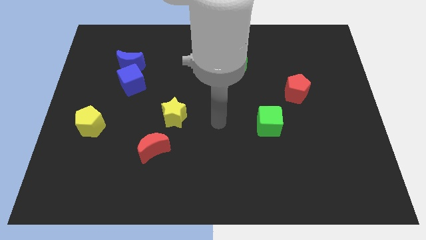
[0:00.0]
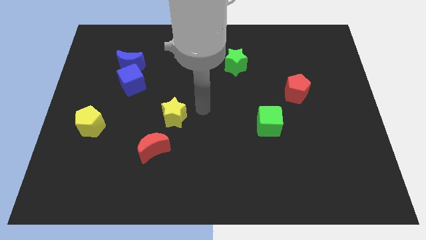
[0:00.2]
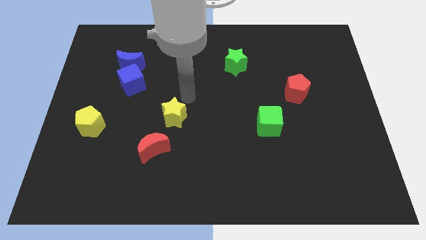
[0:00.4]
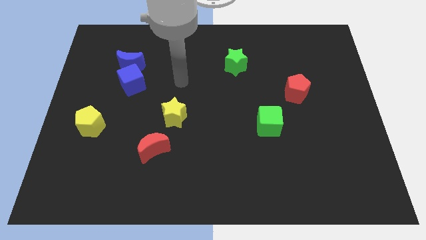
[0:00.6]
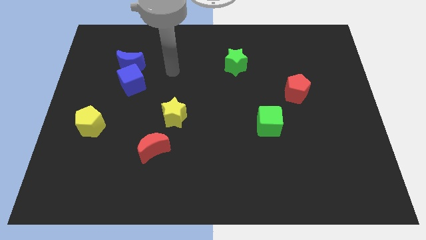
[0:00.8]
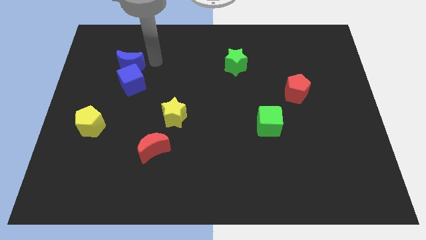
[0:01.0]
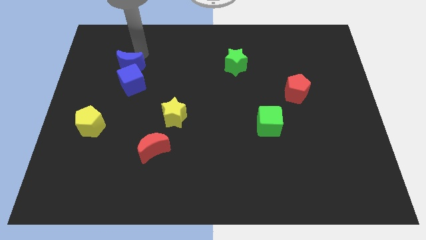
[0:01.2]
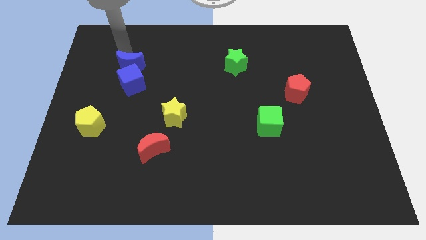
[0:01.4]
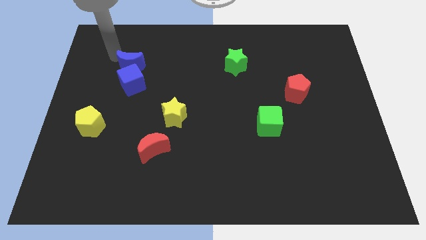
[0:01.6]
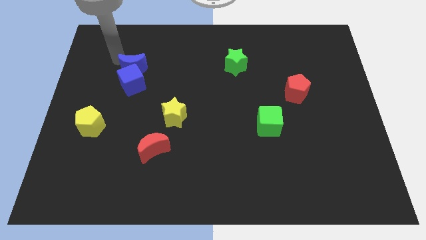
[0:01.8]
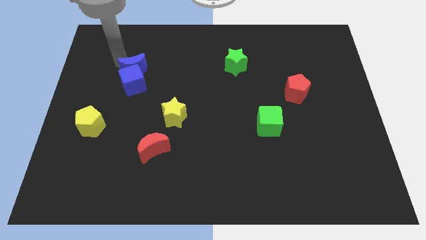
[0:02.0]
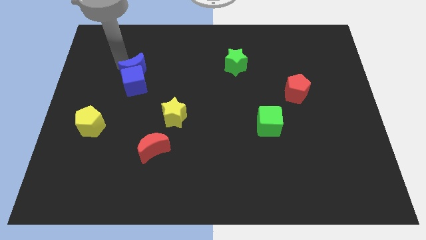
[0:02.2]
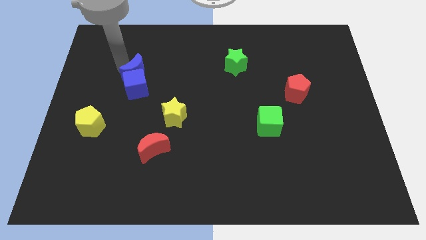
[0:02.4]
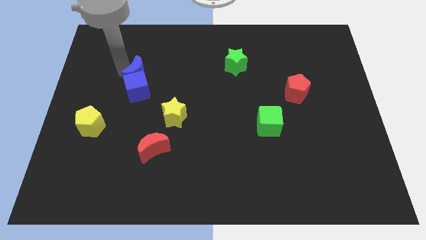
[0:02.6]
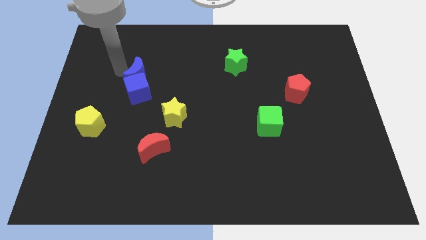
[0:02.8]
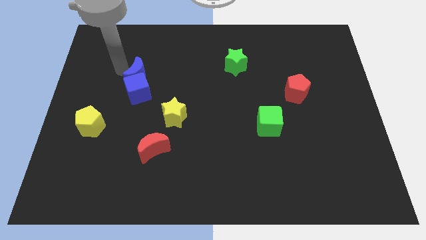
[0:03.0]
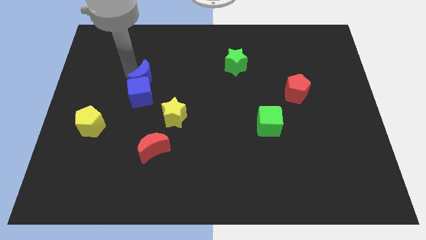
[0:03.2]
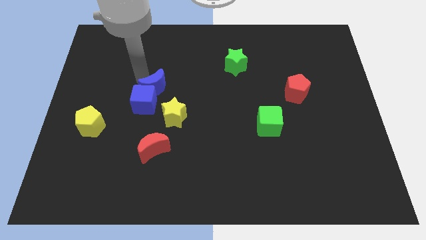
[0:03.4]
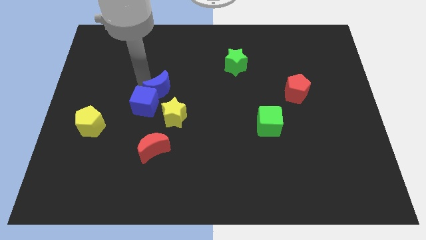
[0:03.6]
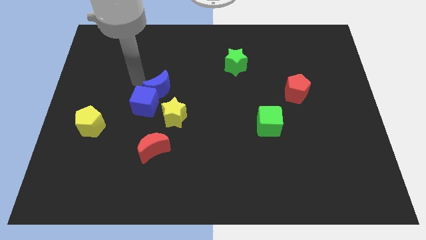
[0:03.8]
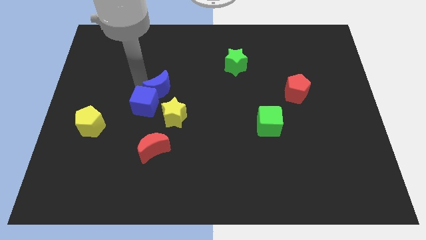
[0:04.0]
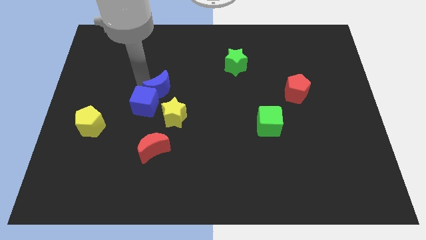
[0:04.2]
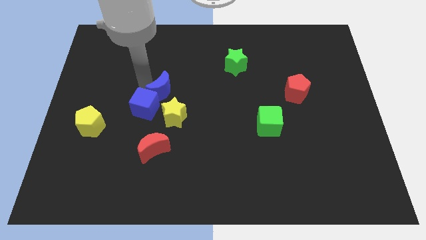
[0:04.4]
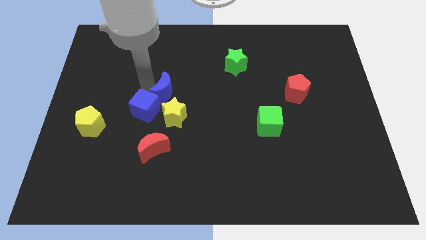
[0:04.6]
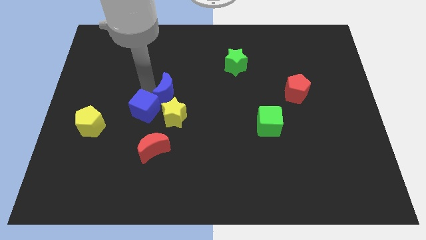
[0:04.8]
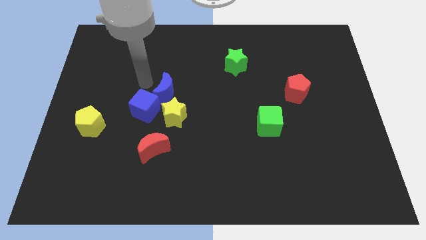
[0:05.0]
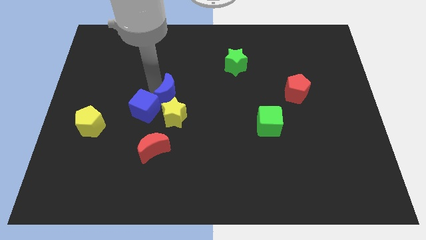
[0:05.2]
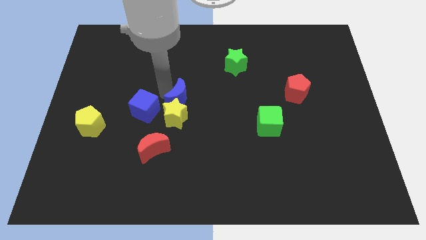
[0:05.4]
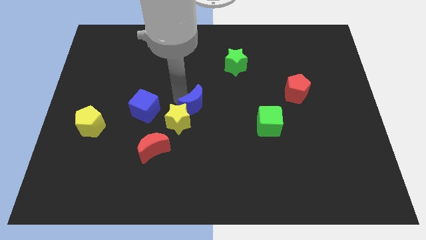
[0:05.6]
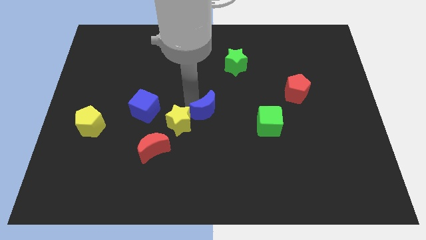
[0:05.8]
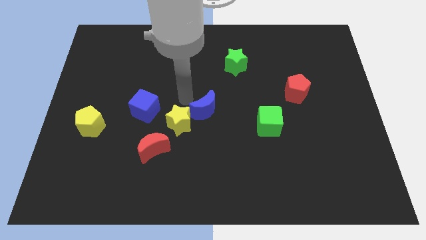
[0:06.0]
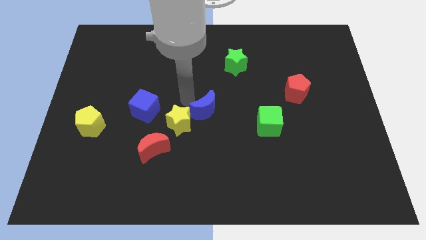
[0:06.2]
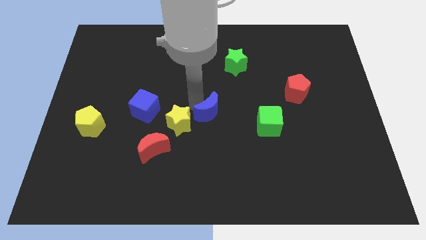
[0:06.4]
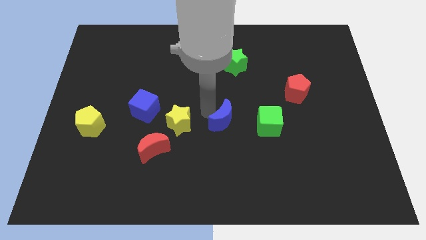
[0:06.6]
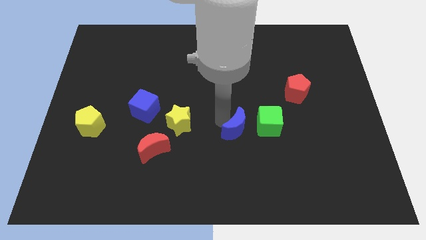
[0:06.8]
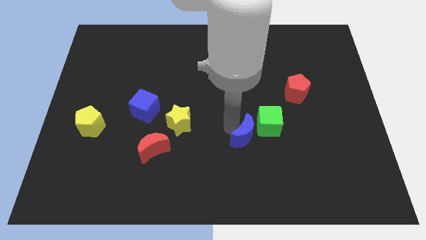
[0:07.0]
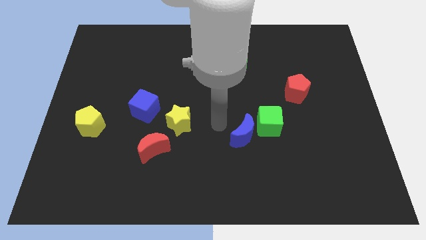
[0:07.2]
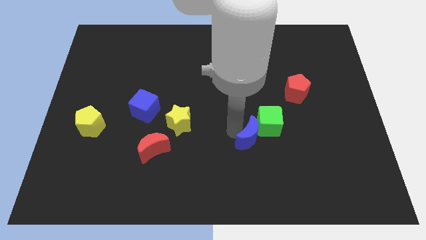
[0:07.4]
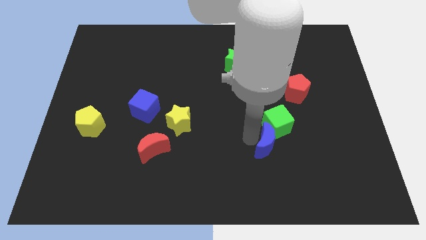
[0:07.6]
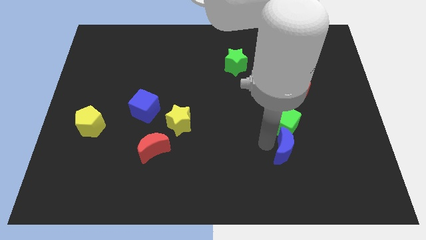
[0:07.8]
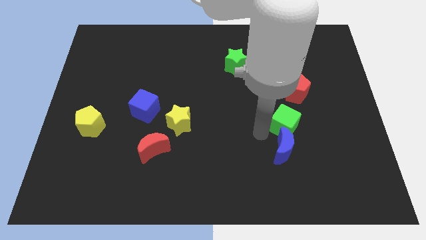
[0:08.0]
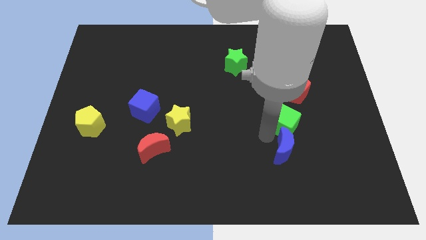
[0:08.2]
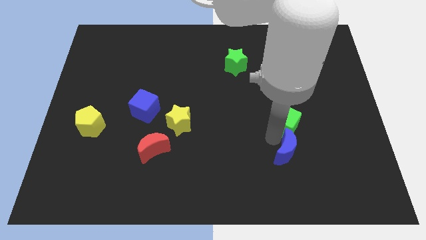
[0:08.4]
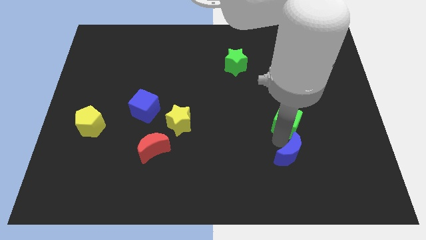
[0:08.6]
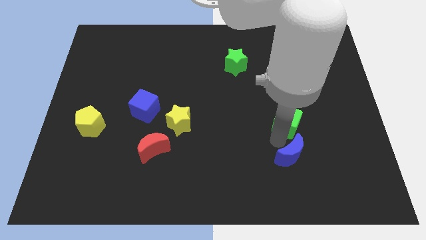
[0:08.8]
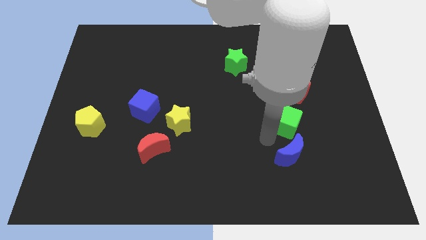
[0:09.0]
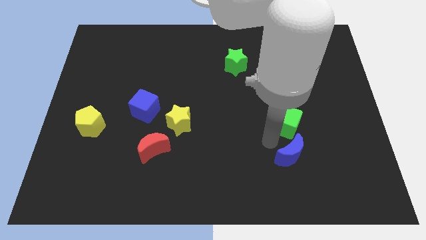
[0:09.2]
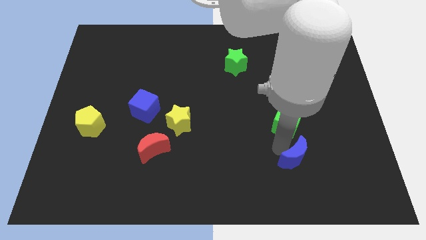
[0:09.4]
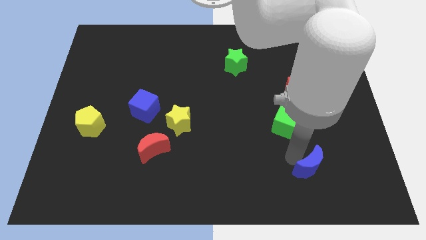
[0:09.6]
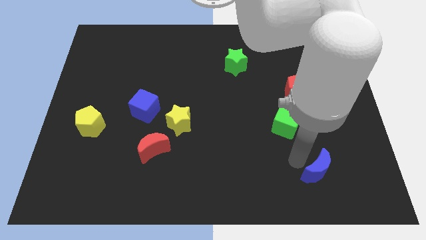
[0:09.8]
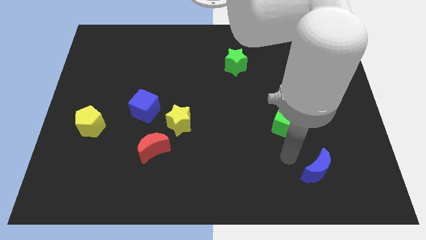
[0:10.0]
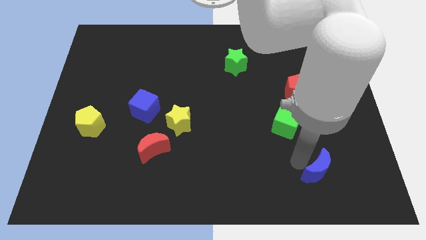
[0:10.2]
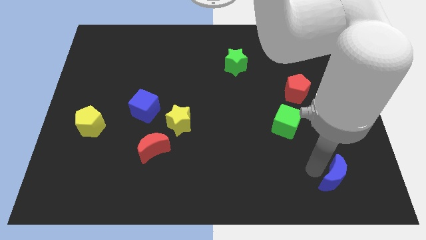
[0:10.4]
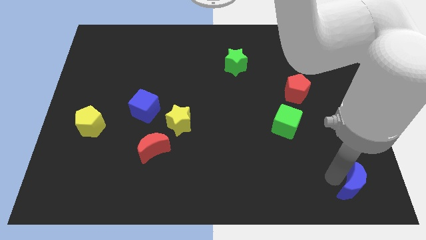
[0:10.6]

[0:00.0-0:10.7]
move the blue moon to the bottom right corner

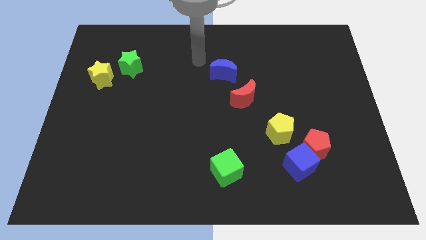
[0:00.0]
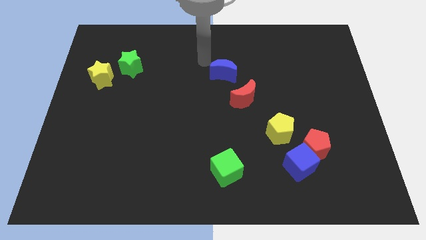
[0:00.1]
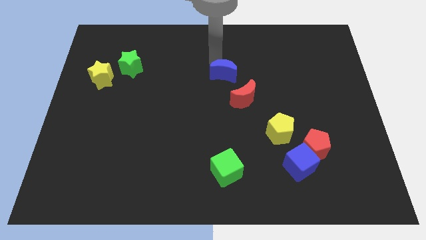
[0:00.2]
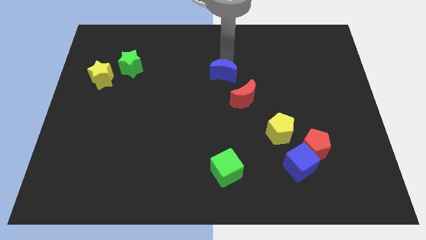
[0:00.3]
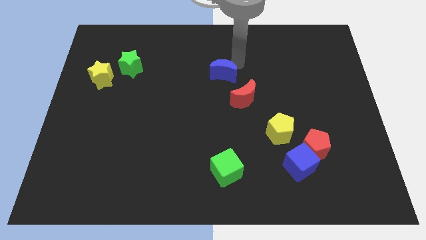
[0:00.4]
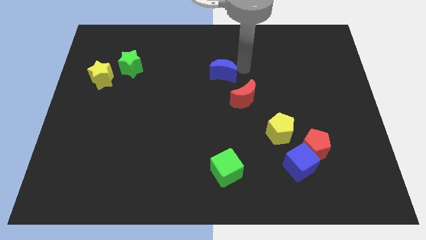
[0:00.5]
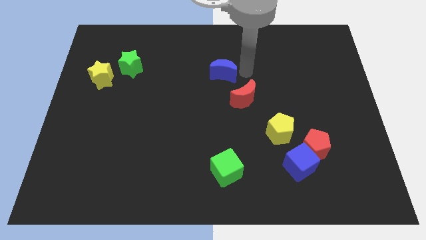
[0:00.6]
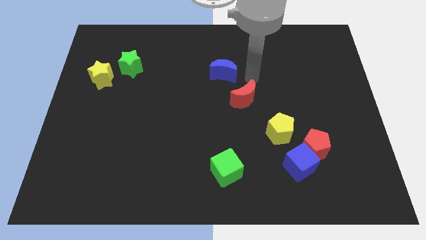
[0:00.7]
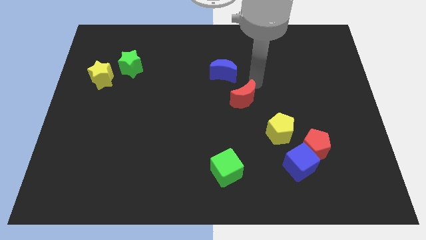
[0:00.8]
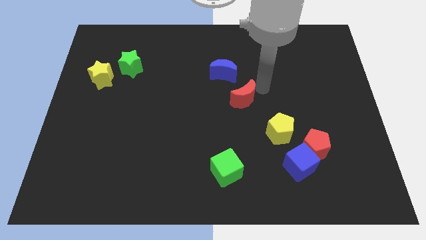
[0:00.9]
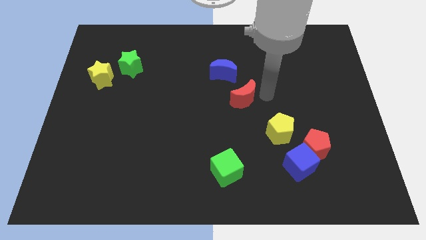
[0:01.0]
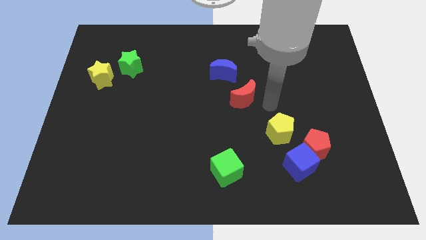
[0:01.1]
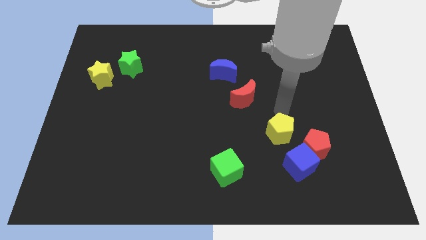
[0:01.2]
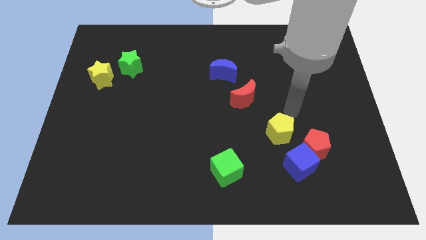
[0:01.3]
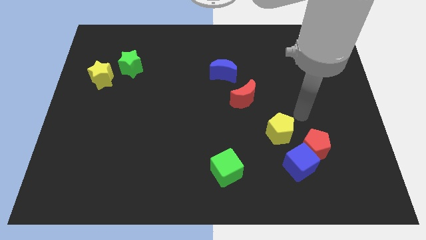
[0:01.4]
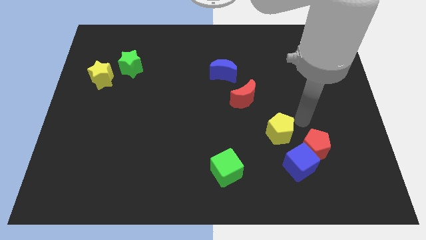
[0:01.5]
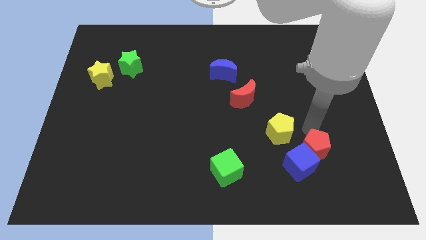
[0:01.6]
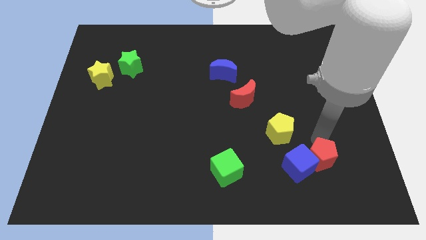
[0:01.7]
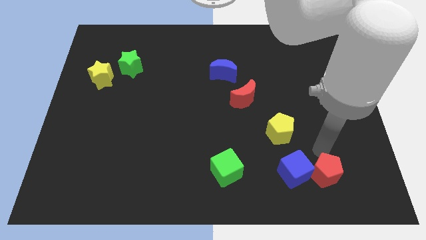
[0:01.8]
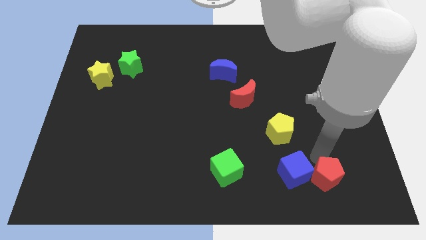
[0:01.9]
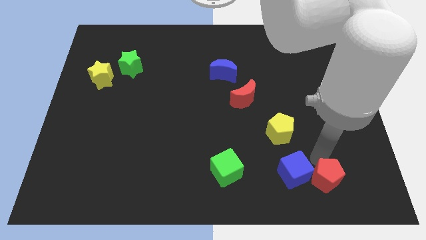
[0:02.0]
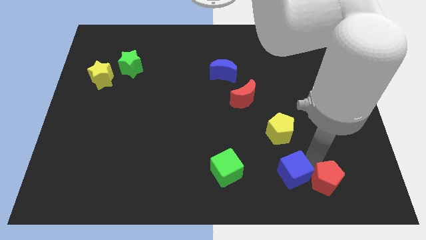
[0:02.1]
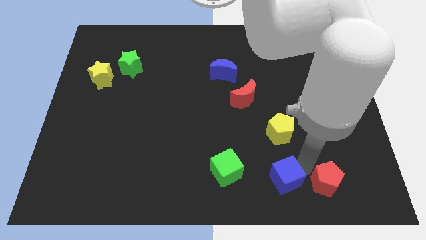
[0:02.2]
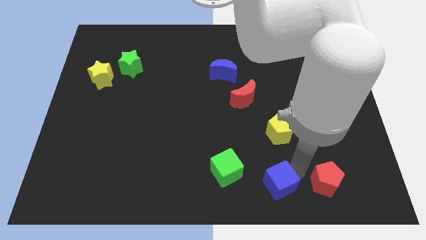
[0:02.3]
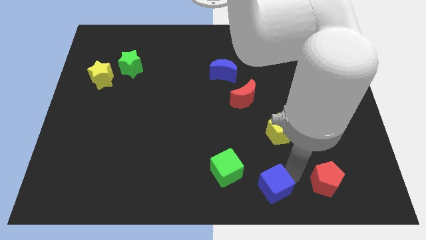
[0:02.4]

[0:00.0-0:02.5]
move the blue cube to the bottom side
